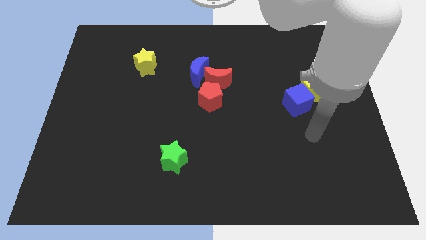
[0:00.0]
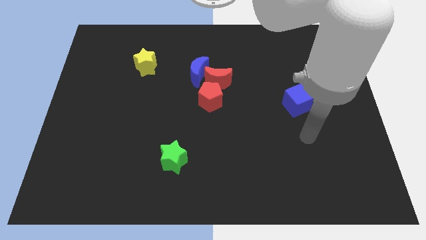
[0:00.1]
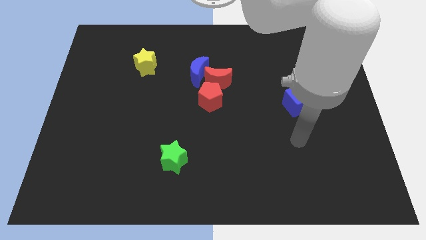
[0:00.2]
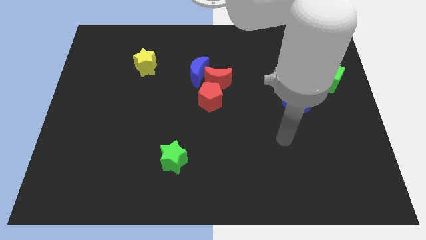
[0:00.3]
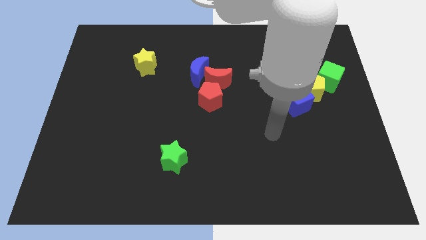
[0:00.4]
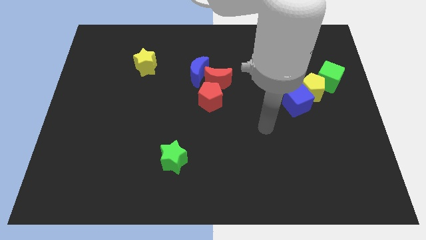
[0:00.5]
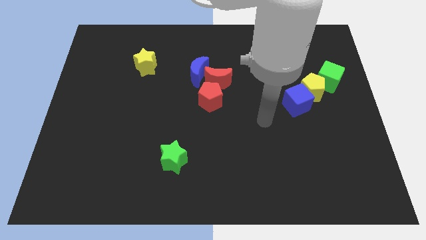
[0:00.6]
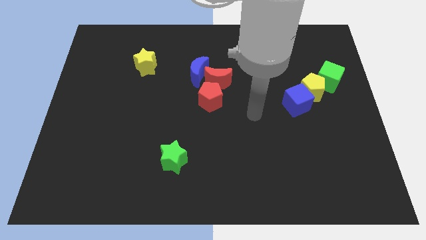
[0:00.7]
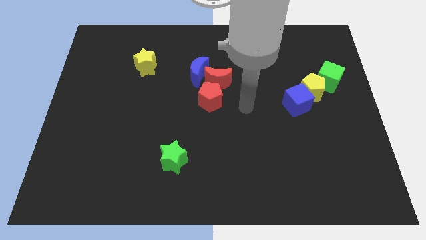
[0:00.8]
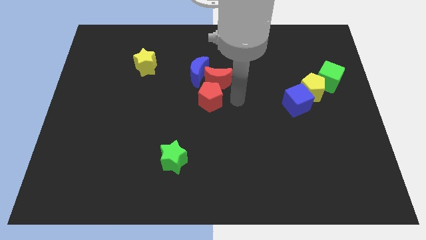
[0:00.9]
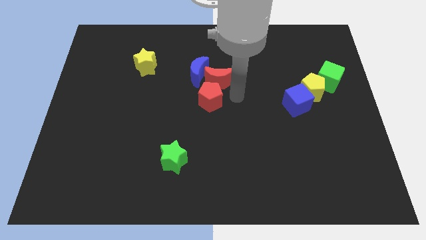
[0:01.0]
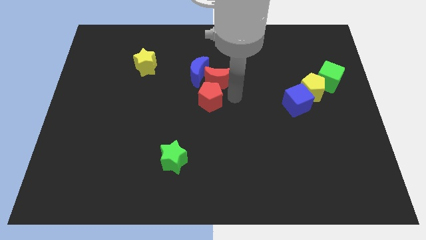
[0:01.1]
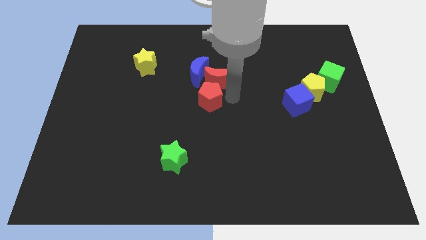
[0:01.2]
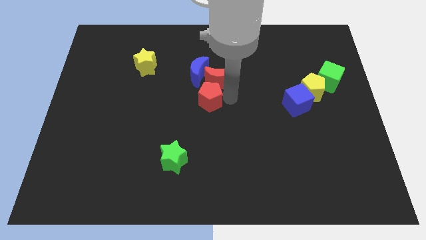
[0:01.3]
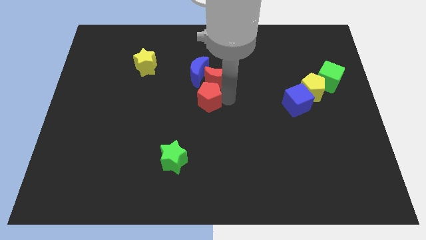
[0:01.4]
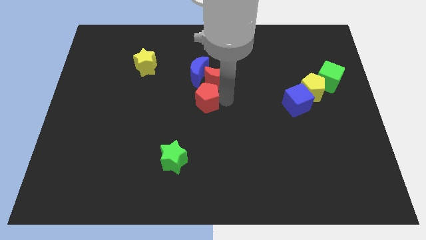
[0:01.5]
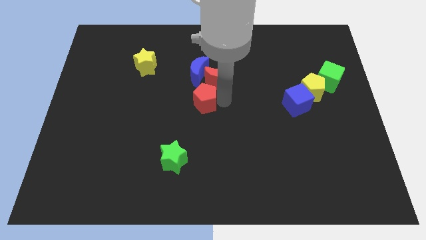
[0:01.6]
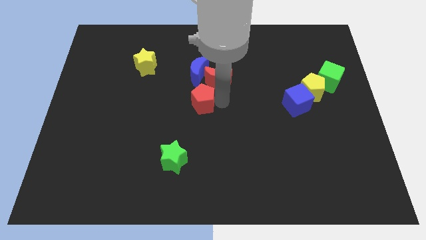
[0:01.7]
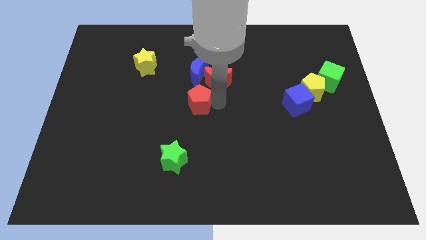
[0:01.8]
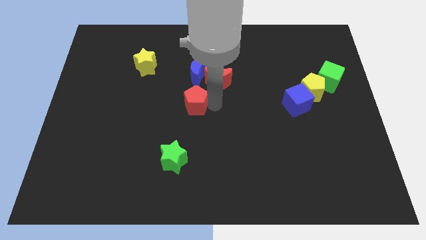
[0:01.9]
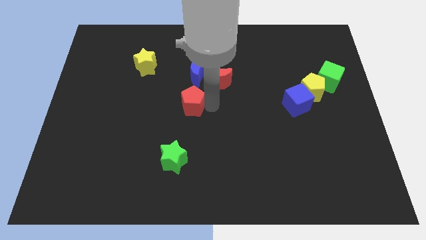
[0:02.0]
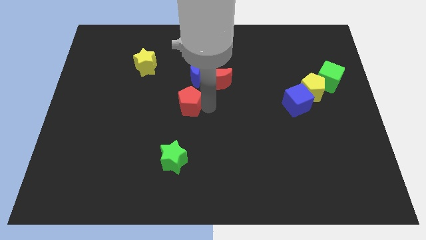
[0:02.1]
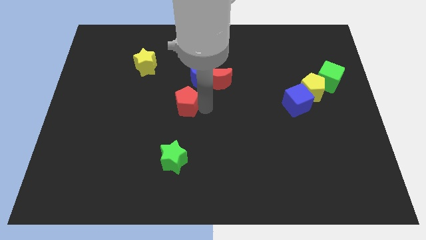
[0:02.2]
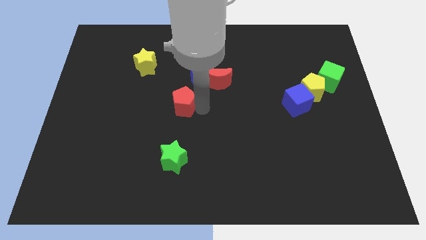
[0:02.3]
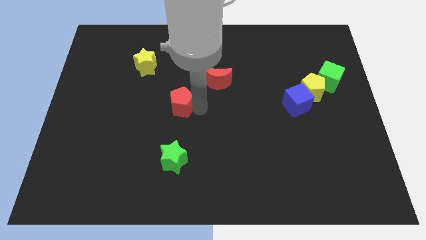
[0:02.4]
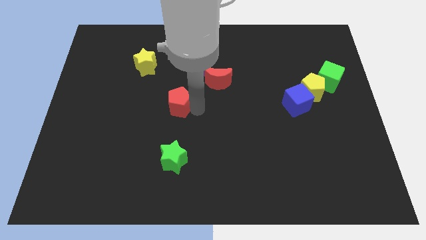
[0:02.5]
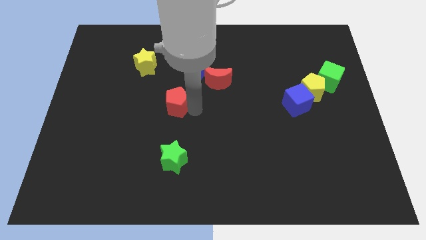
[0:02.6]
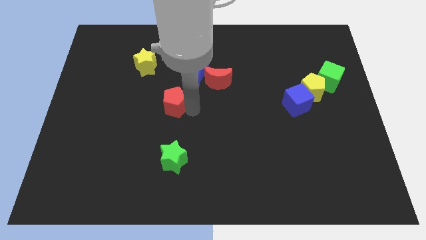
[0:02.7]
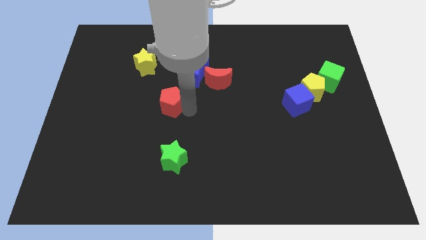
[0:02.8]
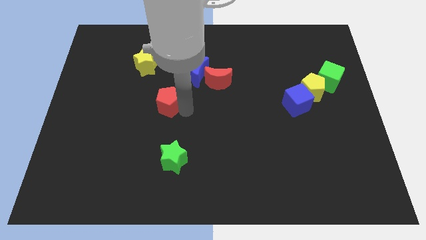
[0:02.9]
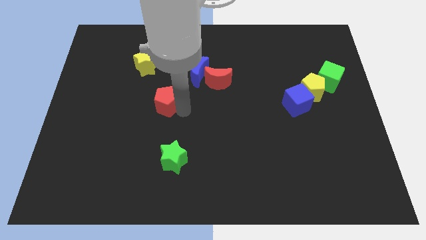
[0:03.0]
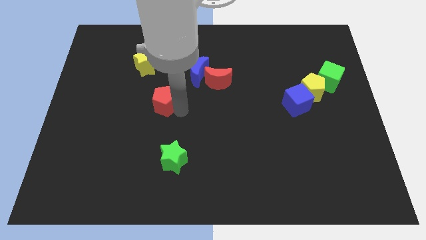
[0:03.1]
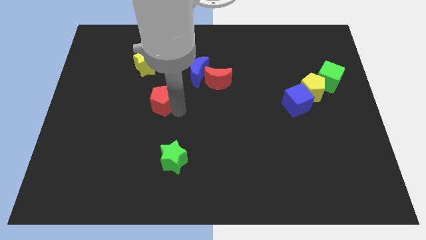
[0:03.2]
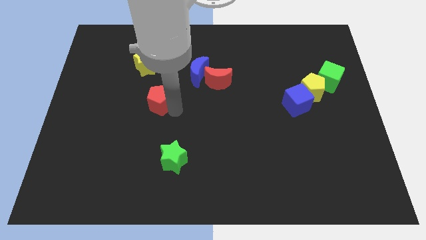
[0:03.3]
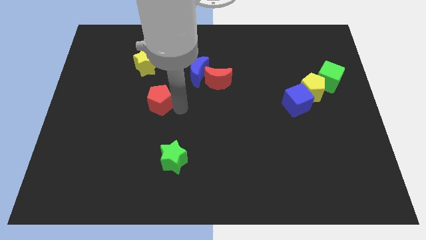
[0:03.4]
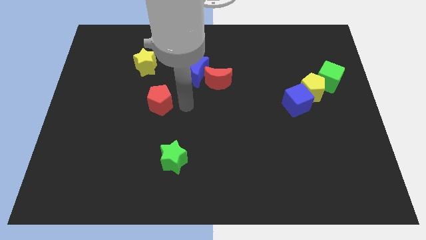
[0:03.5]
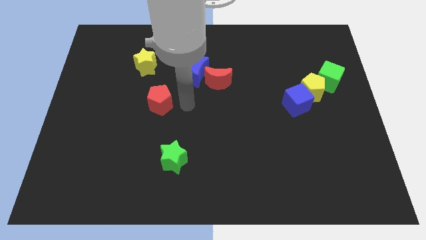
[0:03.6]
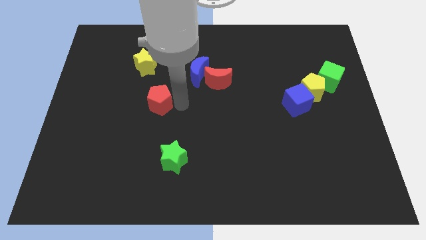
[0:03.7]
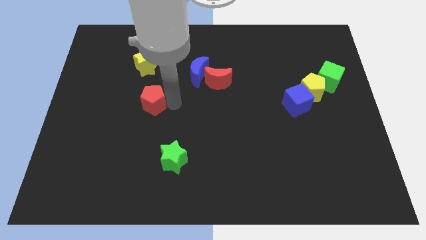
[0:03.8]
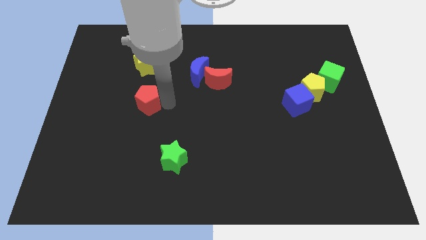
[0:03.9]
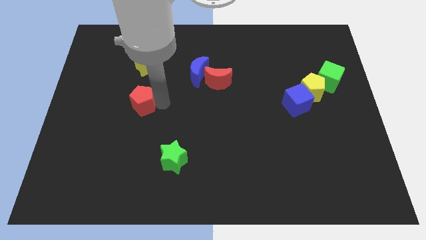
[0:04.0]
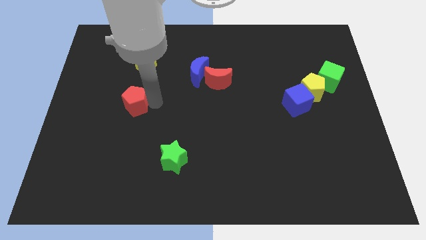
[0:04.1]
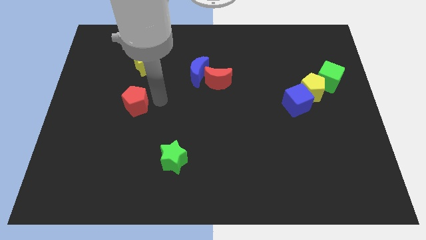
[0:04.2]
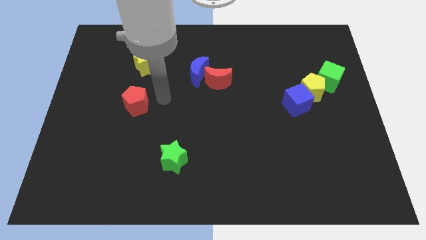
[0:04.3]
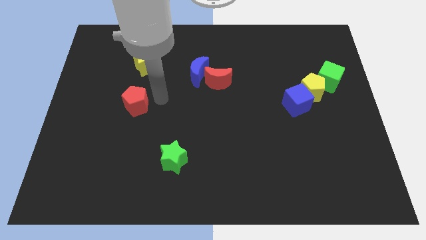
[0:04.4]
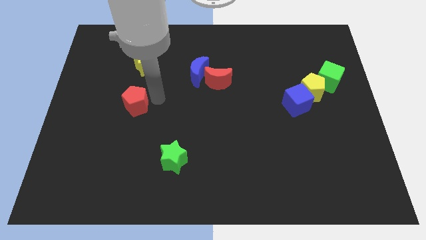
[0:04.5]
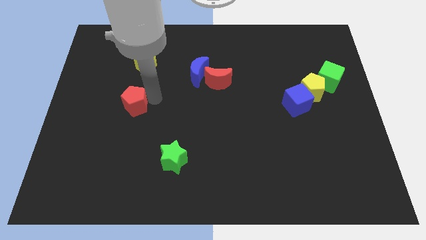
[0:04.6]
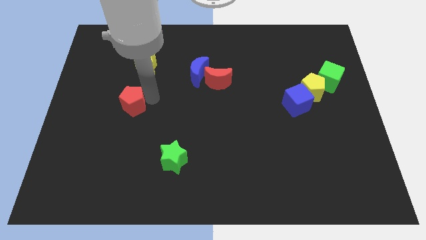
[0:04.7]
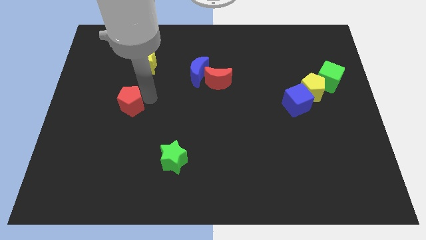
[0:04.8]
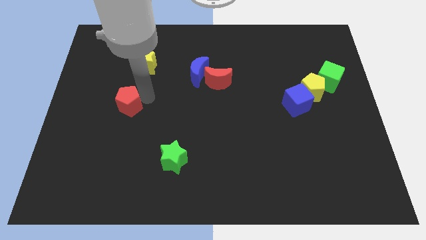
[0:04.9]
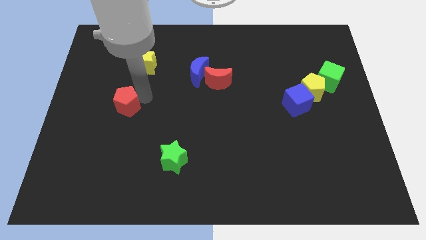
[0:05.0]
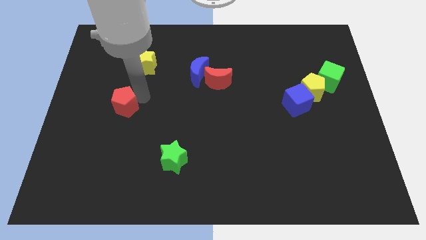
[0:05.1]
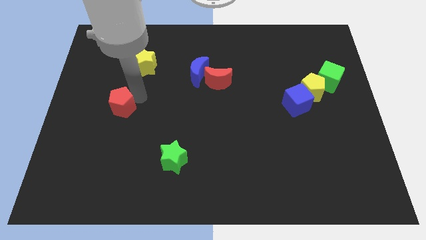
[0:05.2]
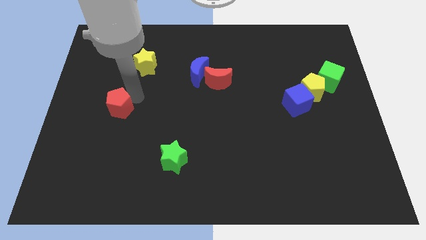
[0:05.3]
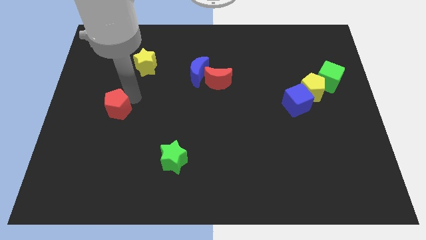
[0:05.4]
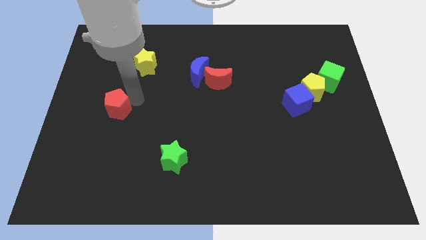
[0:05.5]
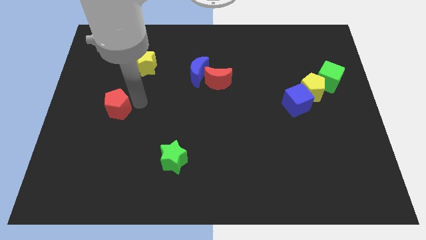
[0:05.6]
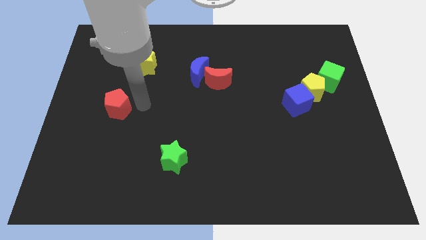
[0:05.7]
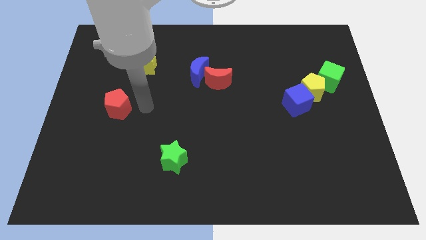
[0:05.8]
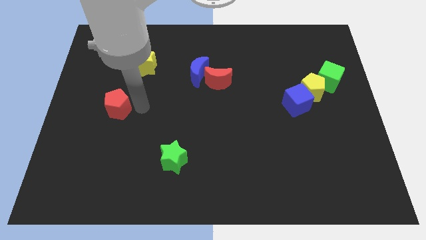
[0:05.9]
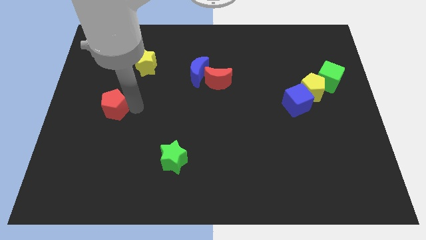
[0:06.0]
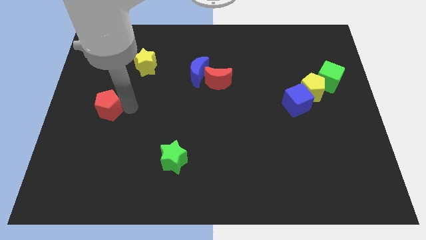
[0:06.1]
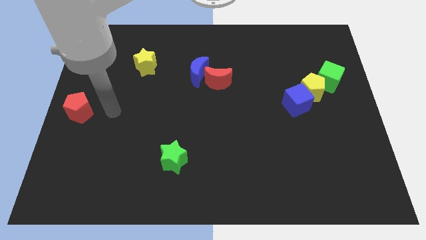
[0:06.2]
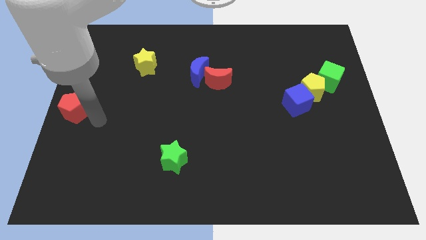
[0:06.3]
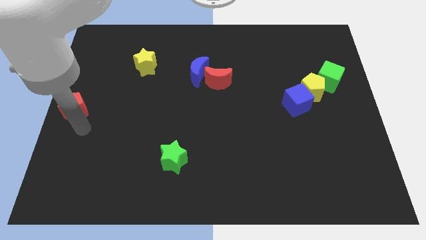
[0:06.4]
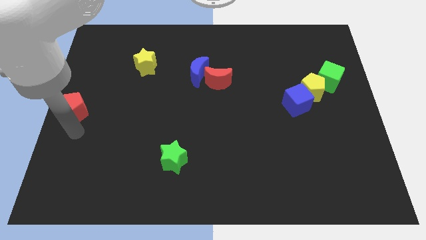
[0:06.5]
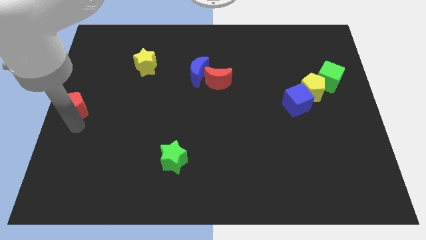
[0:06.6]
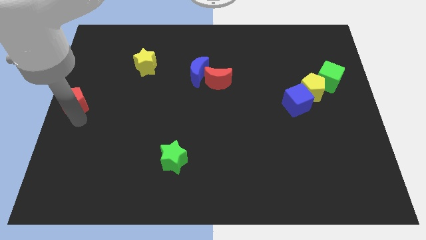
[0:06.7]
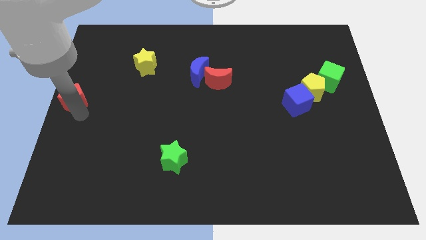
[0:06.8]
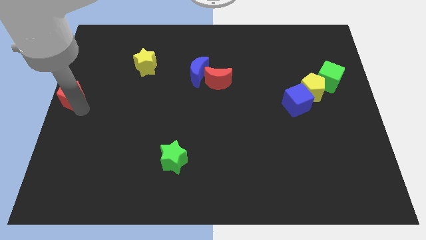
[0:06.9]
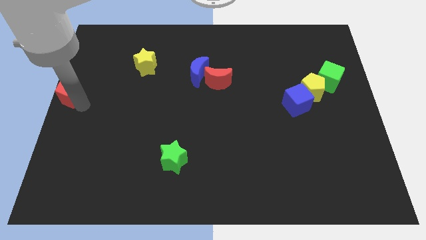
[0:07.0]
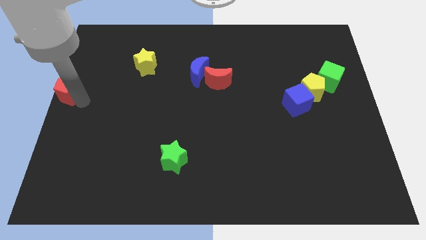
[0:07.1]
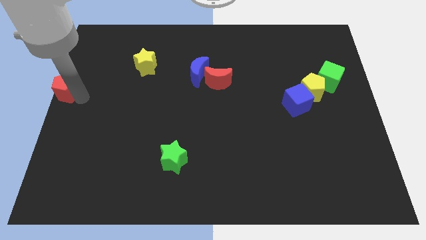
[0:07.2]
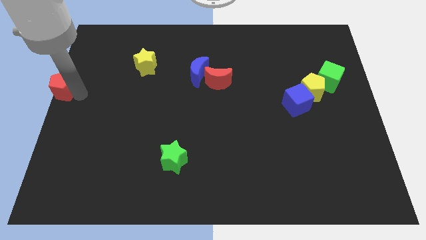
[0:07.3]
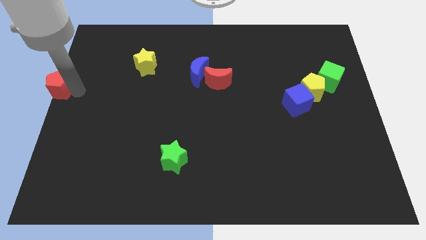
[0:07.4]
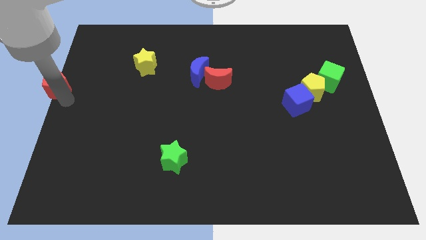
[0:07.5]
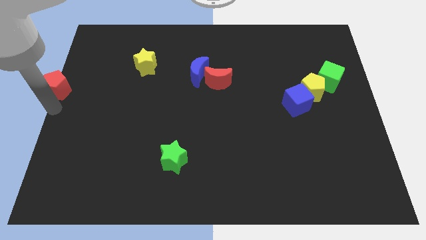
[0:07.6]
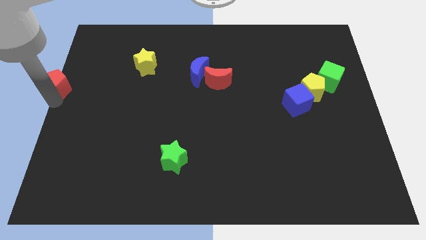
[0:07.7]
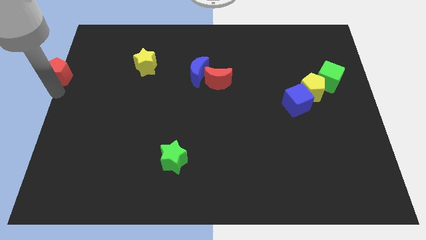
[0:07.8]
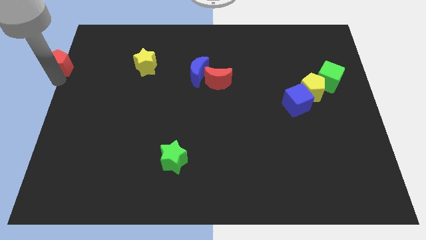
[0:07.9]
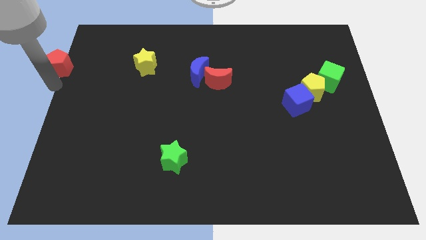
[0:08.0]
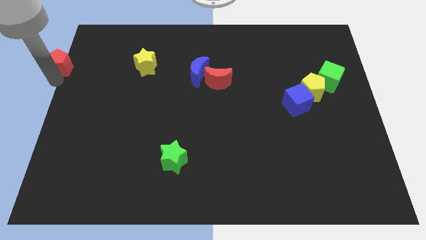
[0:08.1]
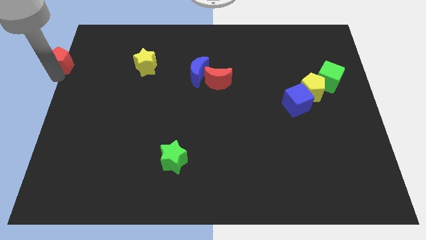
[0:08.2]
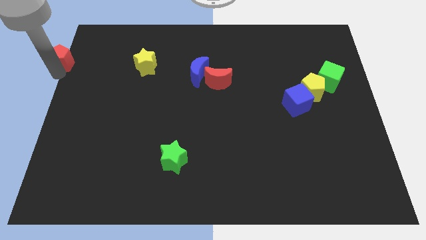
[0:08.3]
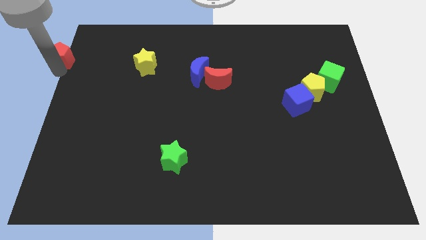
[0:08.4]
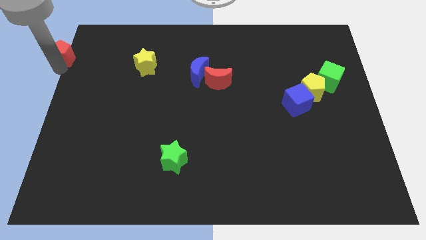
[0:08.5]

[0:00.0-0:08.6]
slide the red pentagon to the top left corner
